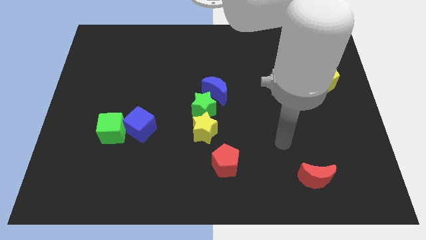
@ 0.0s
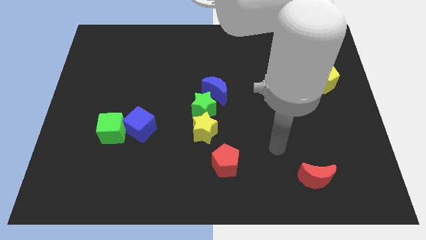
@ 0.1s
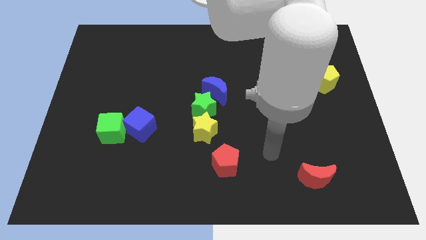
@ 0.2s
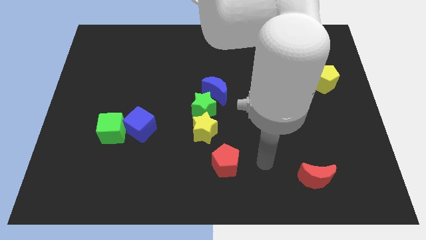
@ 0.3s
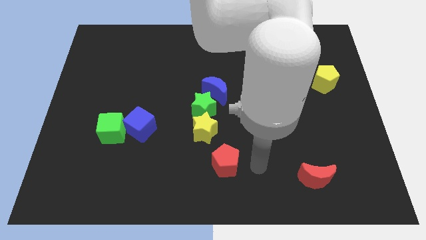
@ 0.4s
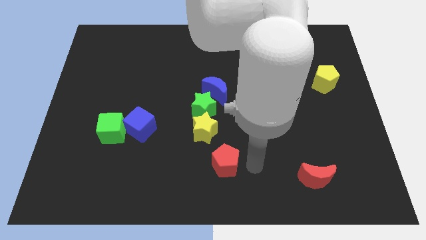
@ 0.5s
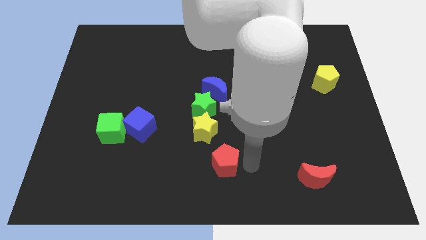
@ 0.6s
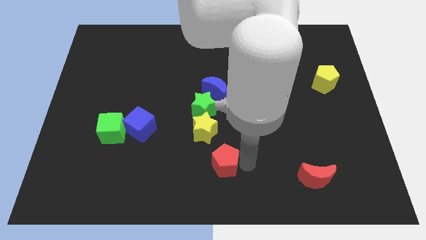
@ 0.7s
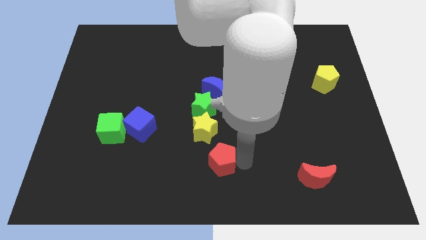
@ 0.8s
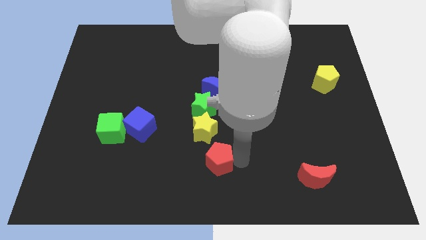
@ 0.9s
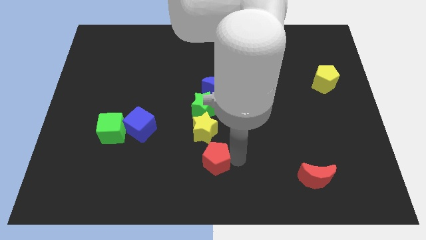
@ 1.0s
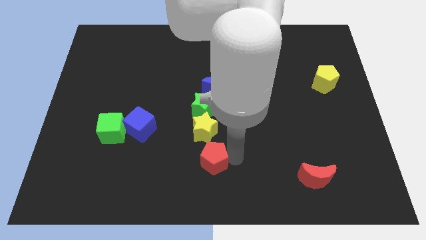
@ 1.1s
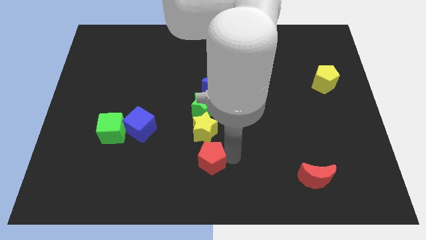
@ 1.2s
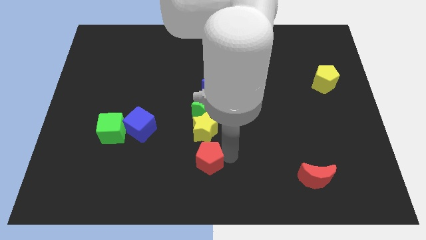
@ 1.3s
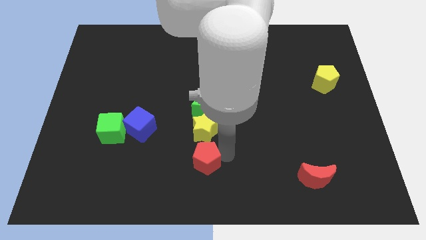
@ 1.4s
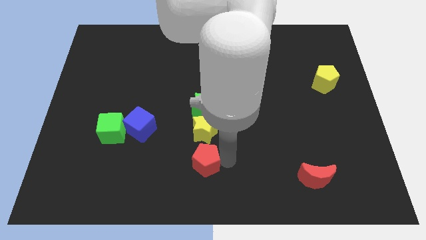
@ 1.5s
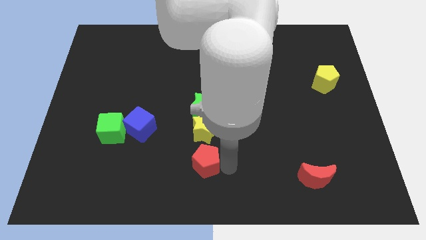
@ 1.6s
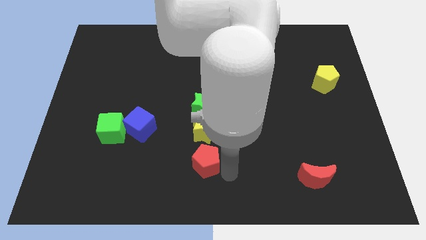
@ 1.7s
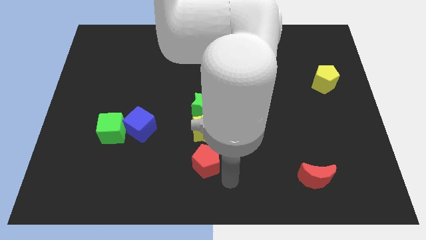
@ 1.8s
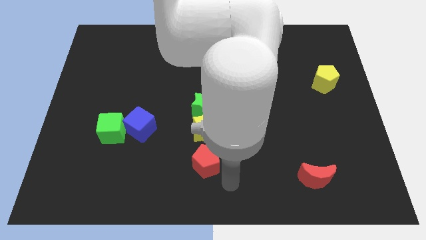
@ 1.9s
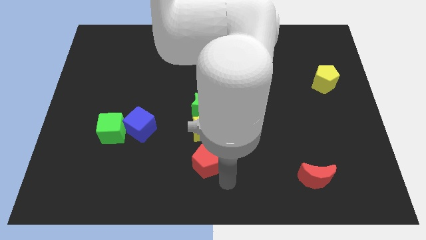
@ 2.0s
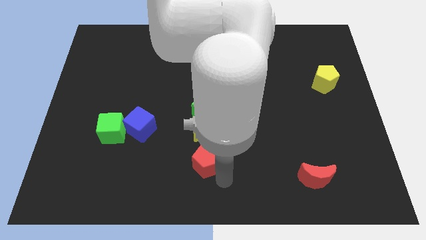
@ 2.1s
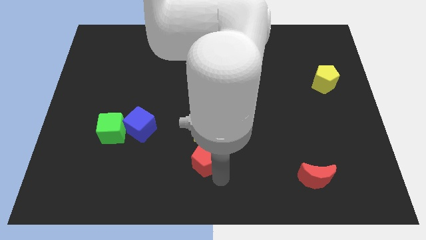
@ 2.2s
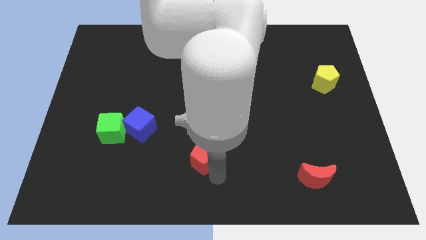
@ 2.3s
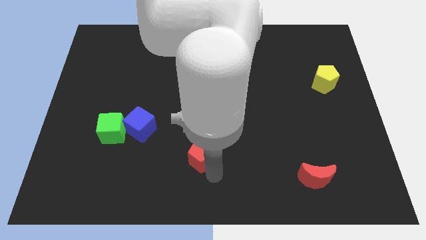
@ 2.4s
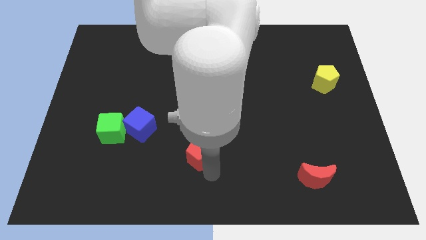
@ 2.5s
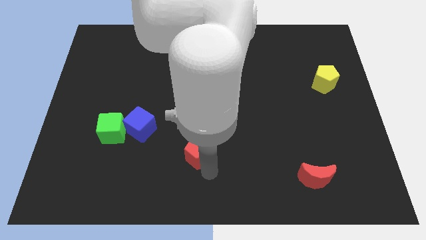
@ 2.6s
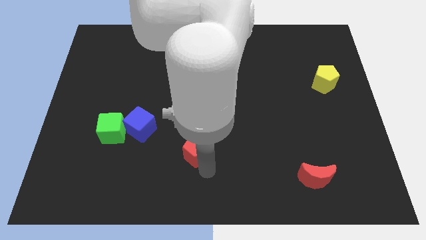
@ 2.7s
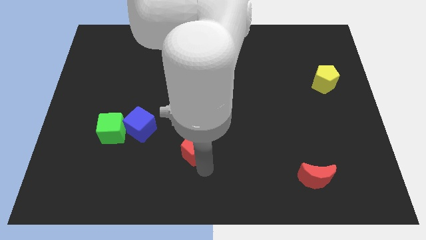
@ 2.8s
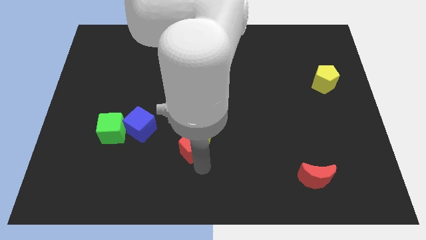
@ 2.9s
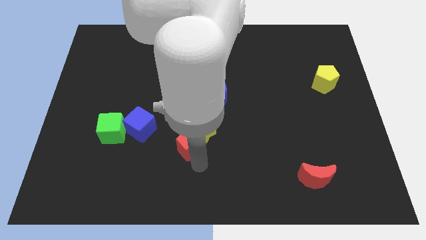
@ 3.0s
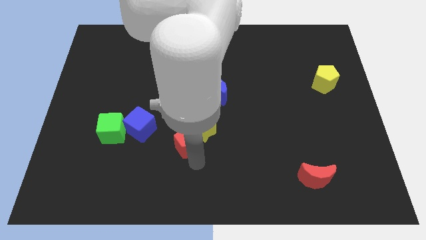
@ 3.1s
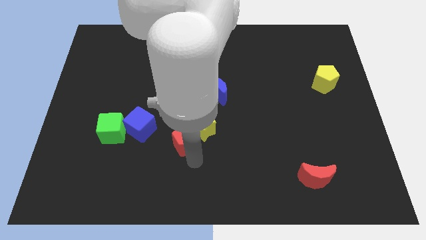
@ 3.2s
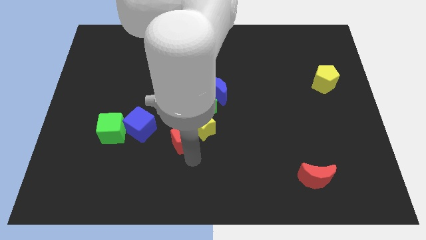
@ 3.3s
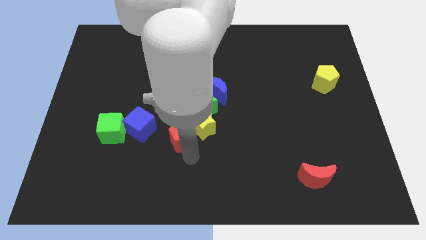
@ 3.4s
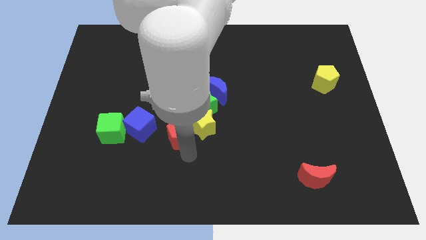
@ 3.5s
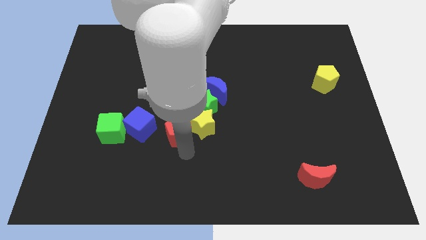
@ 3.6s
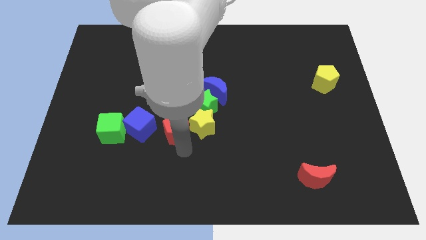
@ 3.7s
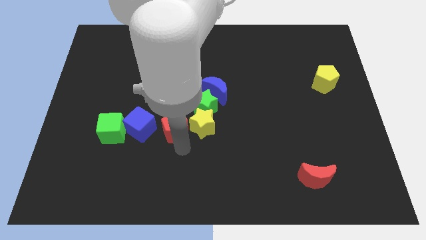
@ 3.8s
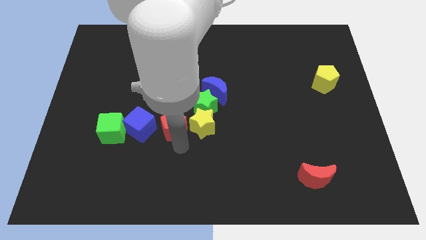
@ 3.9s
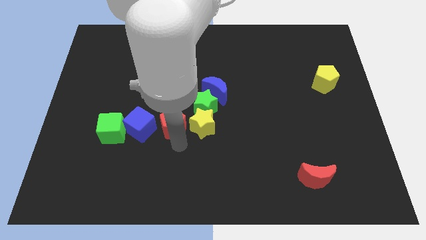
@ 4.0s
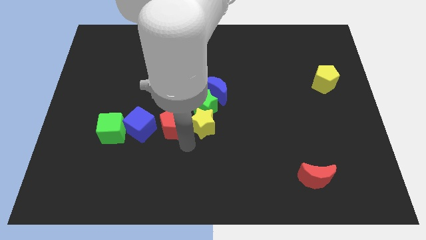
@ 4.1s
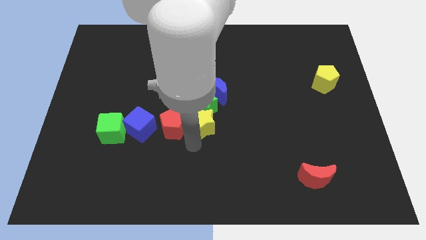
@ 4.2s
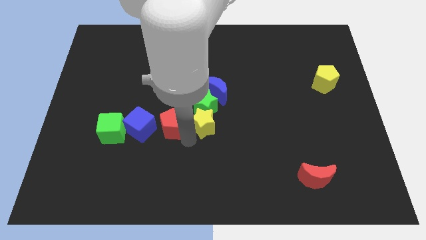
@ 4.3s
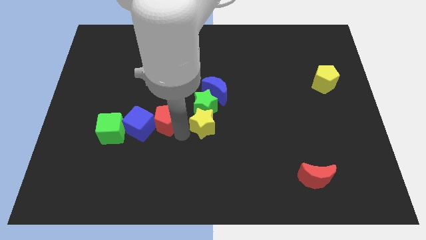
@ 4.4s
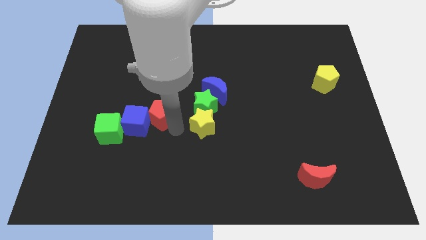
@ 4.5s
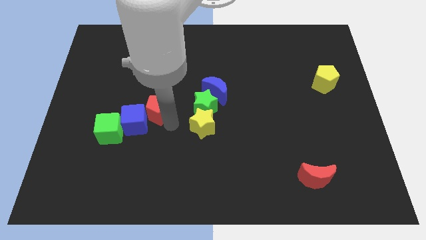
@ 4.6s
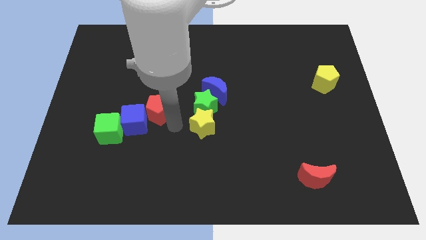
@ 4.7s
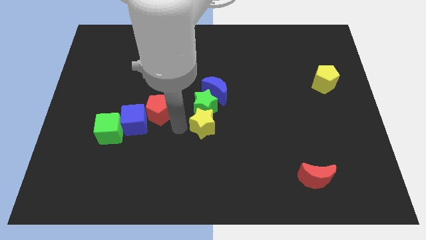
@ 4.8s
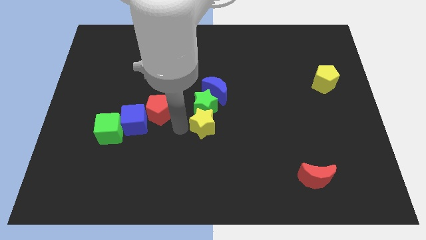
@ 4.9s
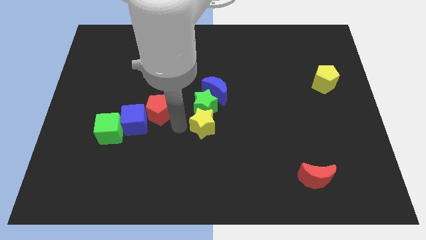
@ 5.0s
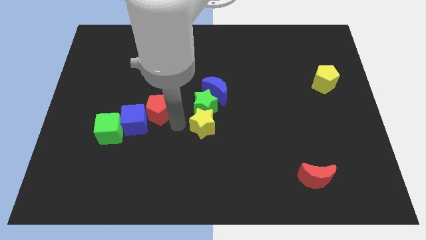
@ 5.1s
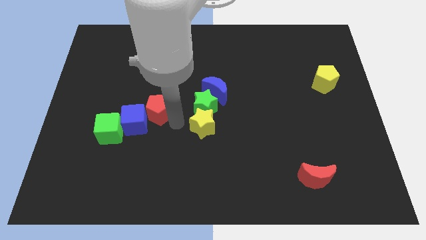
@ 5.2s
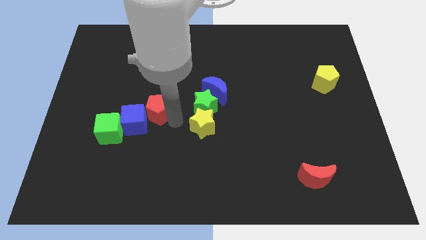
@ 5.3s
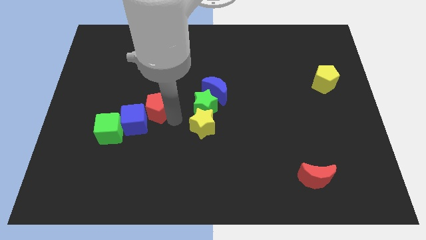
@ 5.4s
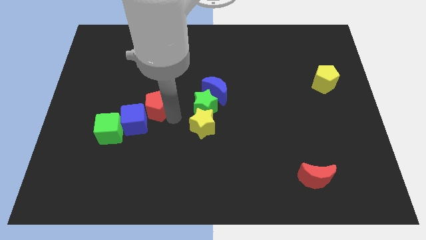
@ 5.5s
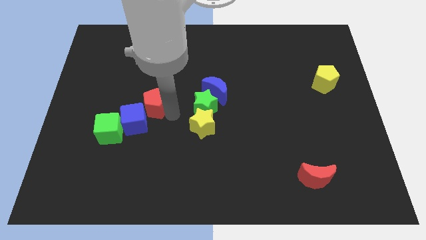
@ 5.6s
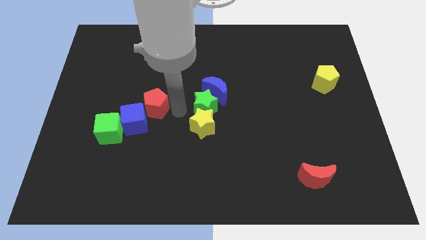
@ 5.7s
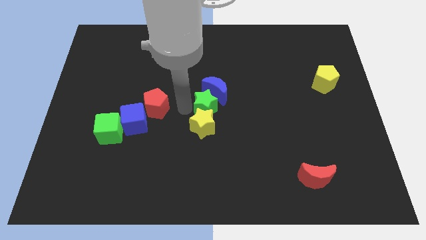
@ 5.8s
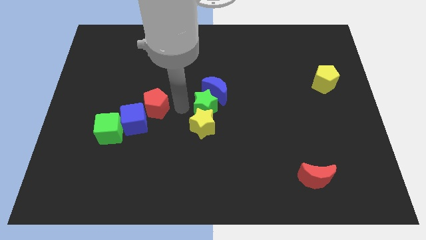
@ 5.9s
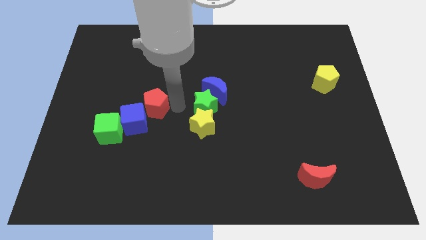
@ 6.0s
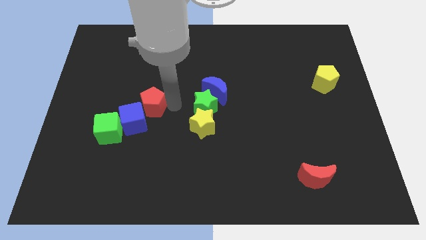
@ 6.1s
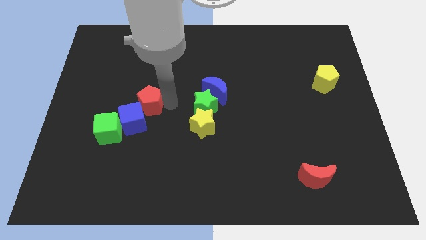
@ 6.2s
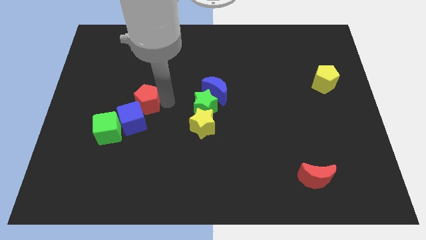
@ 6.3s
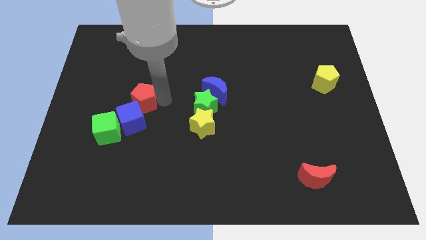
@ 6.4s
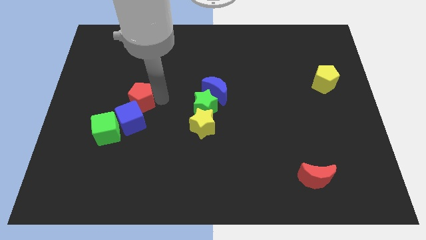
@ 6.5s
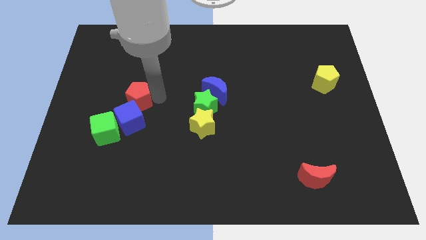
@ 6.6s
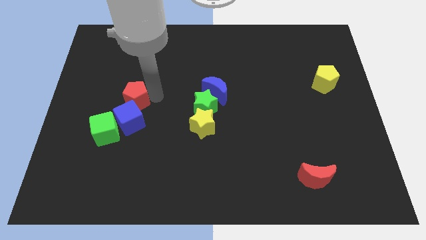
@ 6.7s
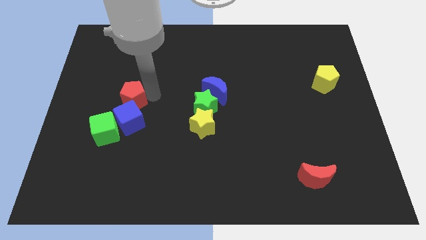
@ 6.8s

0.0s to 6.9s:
put the red pentagon to the top left of the blue cube

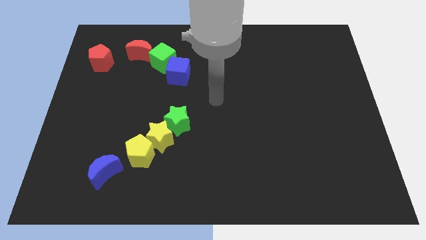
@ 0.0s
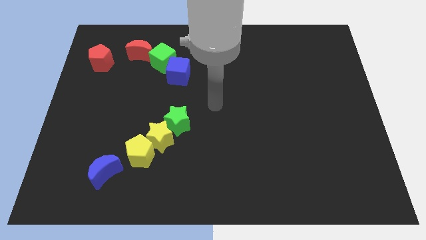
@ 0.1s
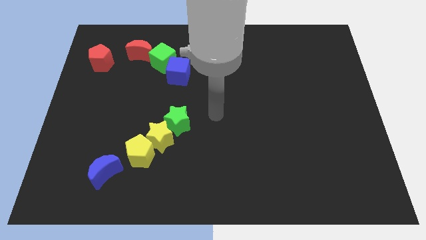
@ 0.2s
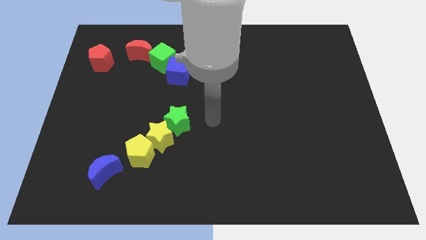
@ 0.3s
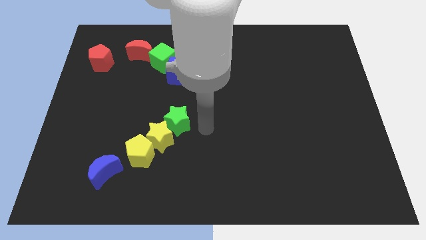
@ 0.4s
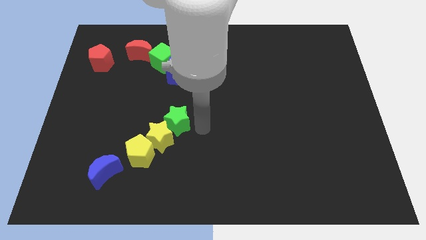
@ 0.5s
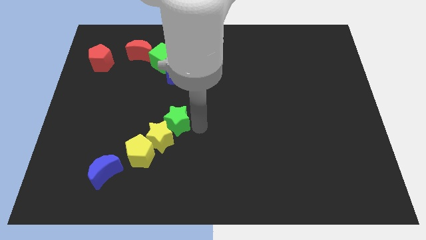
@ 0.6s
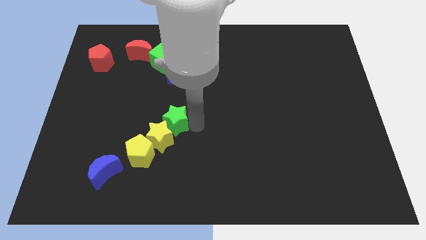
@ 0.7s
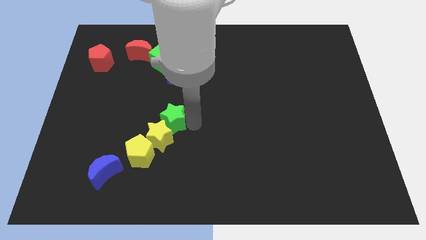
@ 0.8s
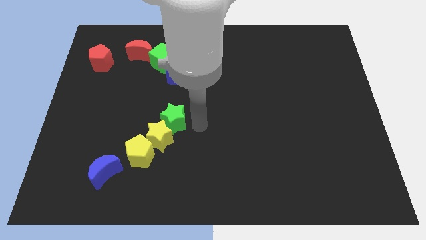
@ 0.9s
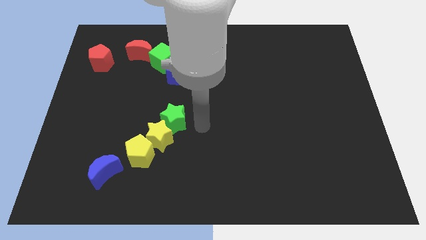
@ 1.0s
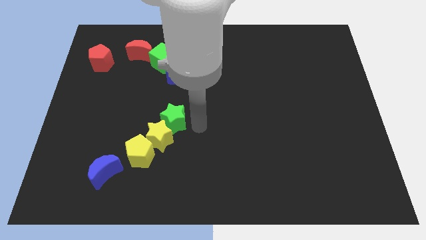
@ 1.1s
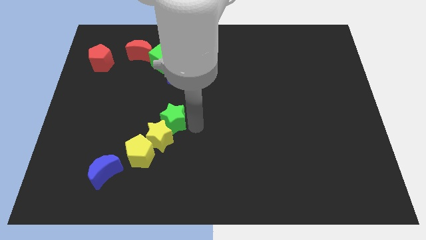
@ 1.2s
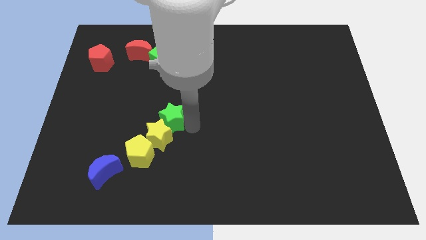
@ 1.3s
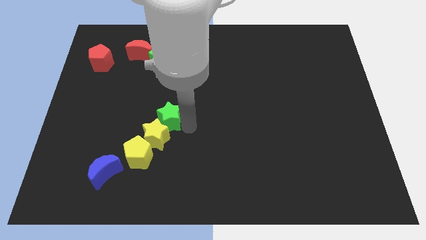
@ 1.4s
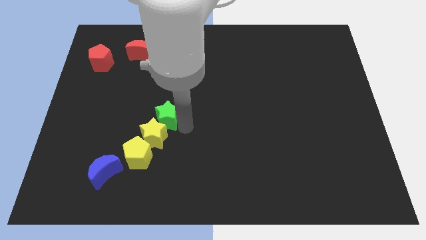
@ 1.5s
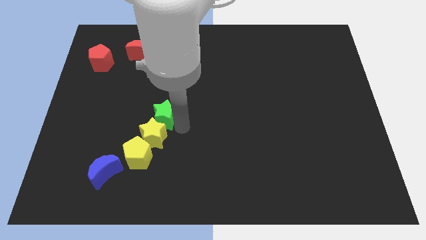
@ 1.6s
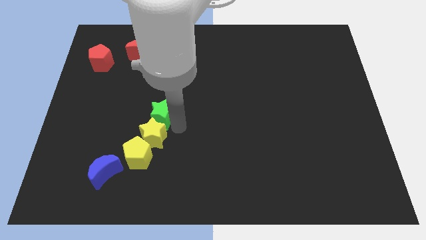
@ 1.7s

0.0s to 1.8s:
slide the green star to the top of the yellow pentagon
